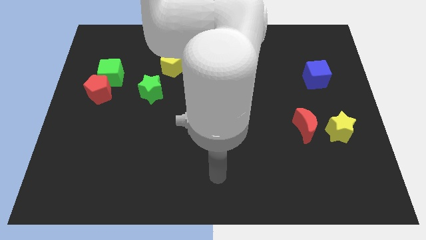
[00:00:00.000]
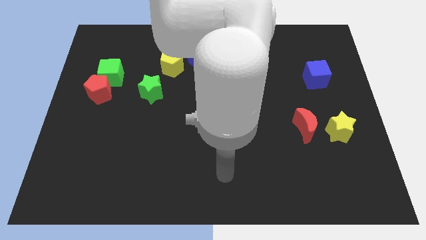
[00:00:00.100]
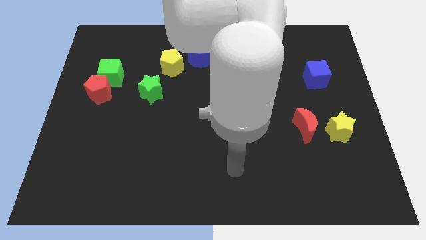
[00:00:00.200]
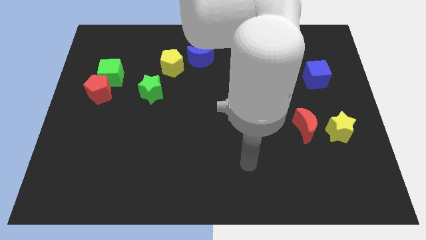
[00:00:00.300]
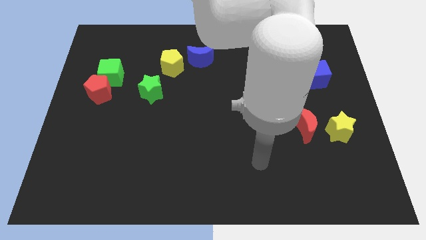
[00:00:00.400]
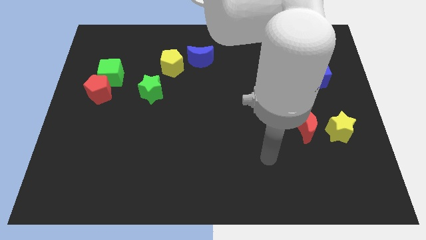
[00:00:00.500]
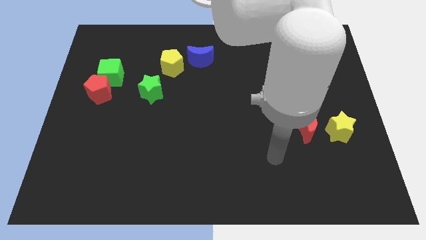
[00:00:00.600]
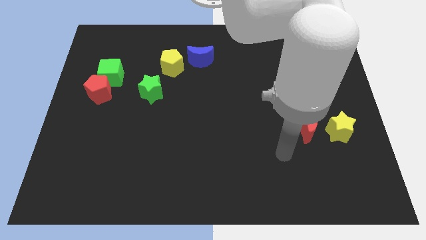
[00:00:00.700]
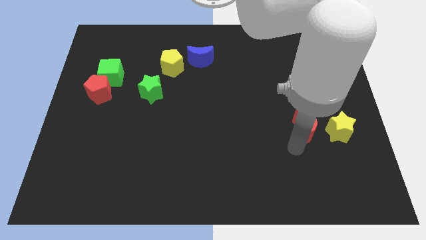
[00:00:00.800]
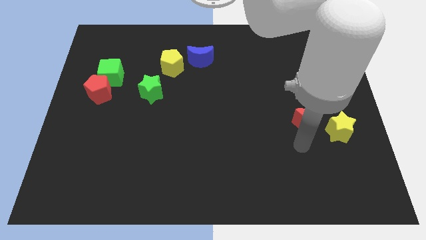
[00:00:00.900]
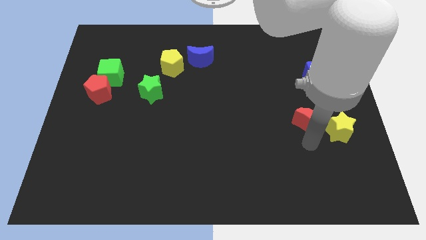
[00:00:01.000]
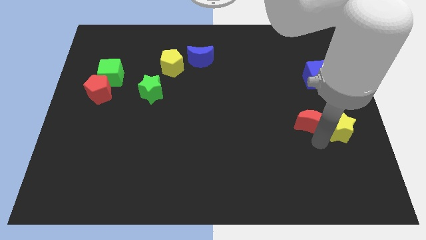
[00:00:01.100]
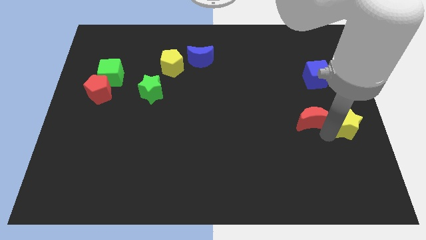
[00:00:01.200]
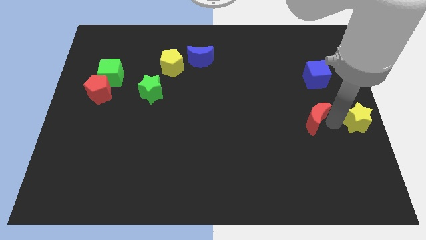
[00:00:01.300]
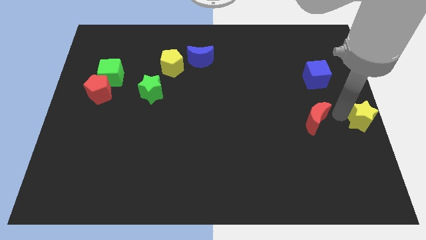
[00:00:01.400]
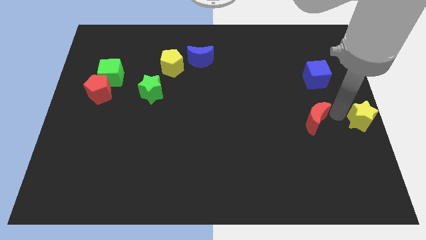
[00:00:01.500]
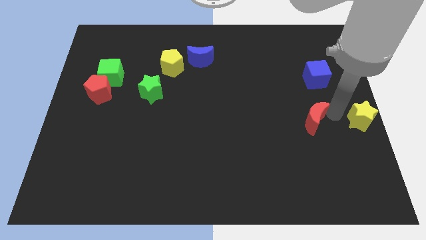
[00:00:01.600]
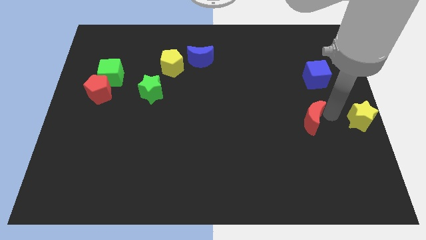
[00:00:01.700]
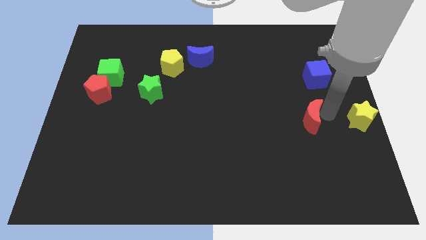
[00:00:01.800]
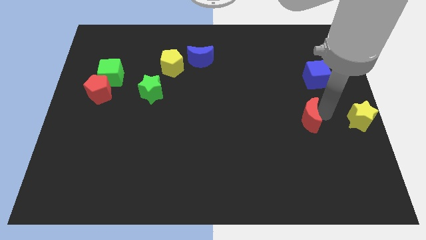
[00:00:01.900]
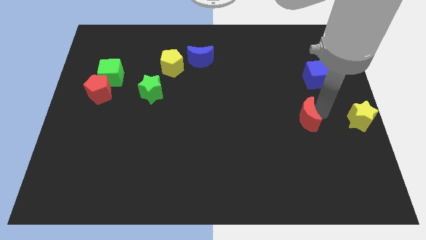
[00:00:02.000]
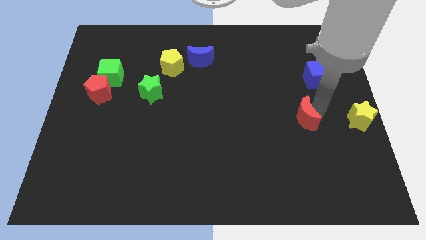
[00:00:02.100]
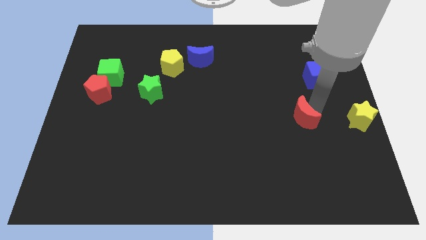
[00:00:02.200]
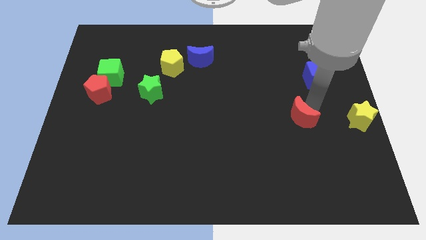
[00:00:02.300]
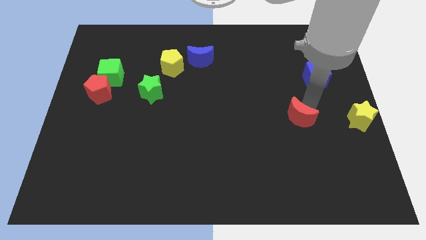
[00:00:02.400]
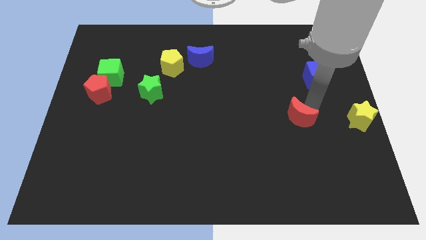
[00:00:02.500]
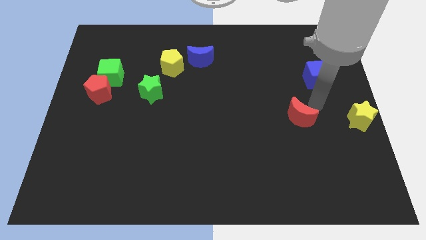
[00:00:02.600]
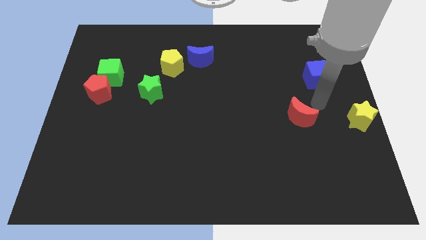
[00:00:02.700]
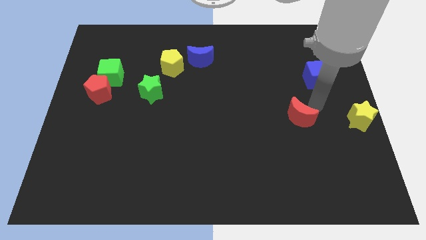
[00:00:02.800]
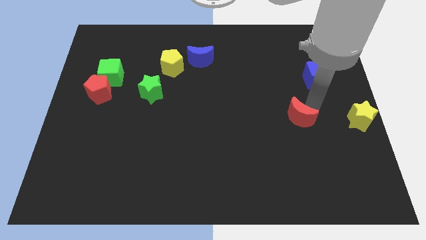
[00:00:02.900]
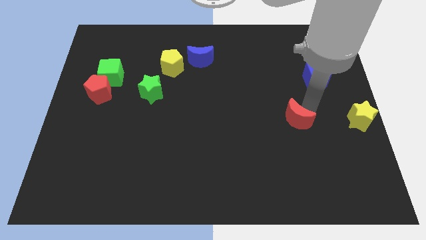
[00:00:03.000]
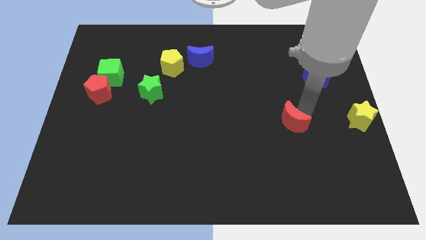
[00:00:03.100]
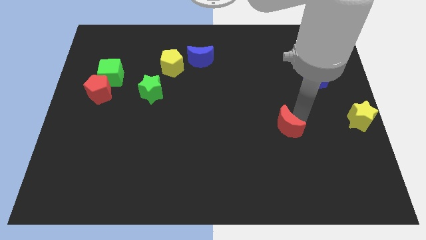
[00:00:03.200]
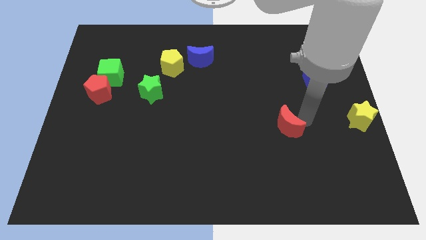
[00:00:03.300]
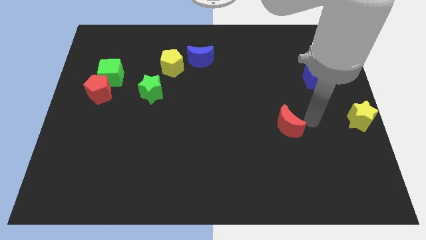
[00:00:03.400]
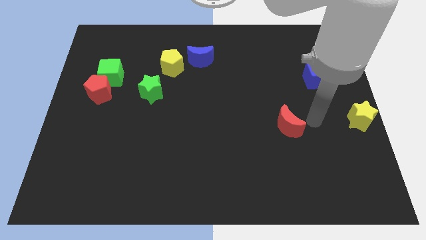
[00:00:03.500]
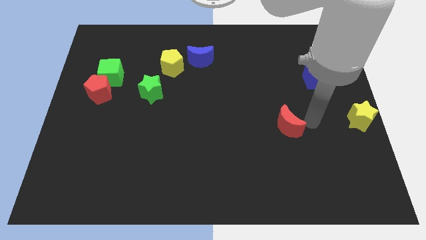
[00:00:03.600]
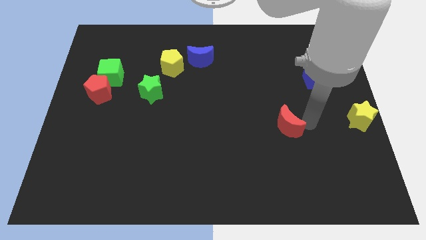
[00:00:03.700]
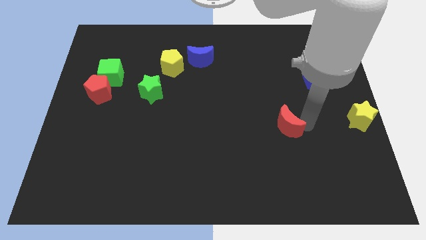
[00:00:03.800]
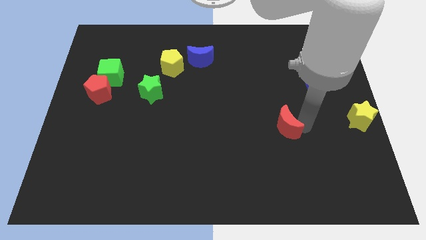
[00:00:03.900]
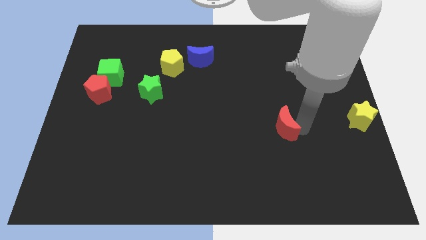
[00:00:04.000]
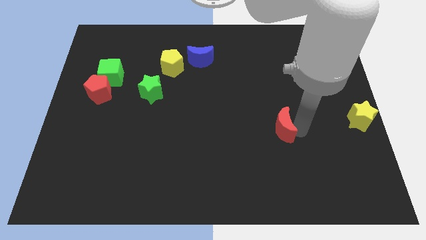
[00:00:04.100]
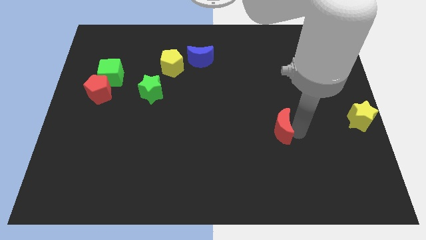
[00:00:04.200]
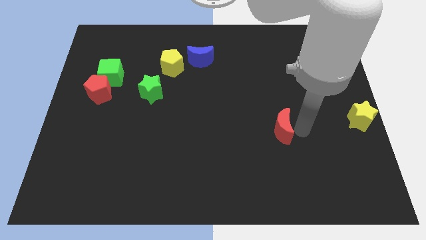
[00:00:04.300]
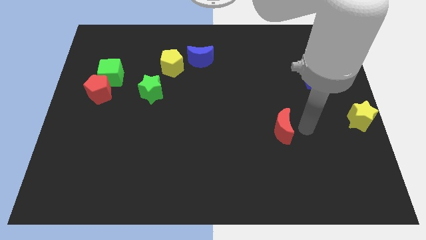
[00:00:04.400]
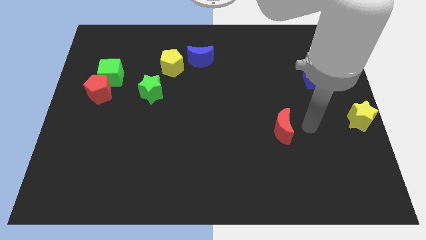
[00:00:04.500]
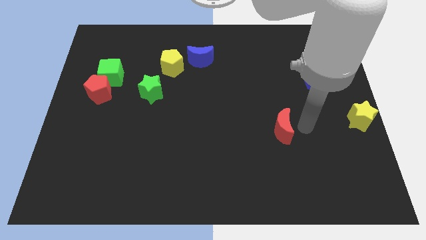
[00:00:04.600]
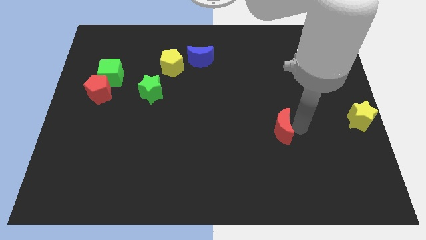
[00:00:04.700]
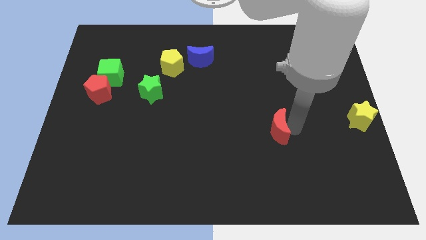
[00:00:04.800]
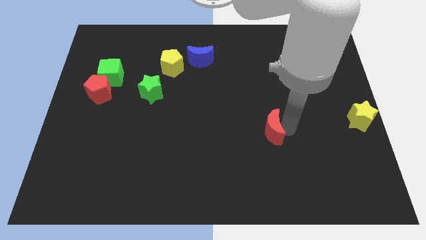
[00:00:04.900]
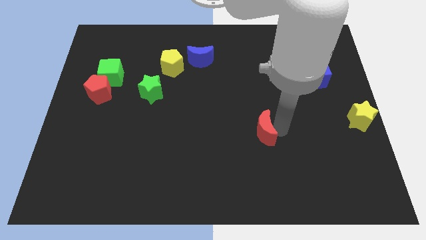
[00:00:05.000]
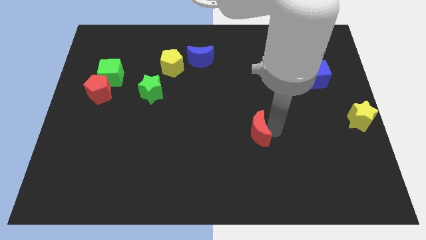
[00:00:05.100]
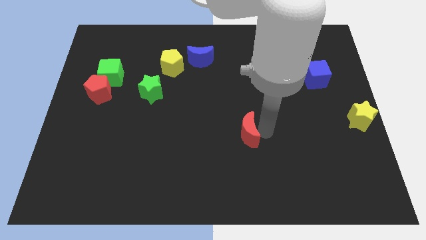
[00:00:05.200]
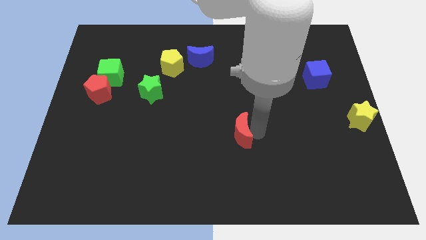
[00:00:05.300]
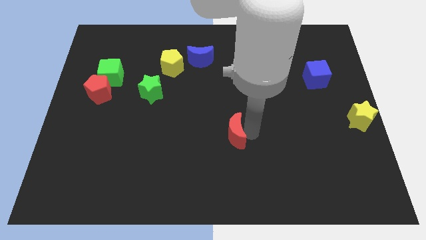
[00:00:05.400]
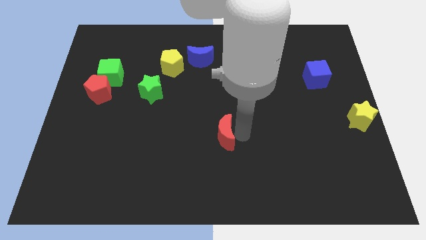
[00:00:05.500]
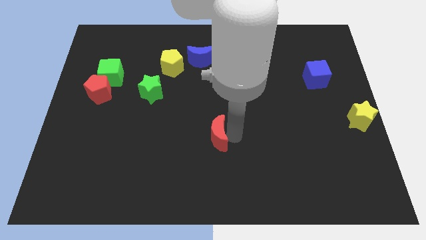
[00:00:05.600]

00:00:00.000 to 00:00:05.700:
slide the red moon to the left

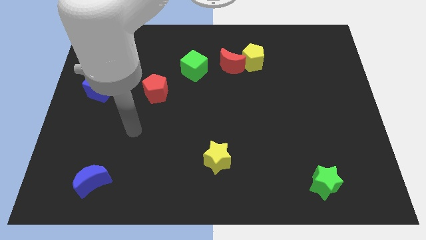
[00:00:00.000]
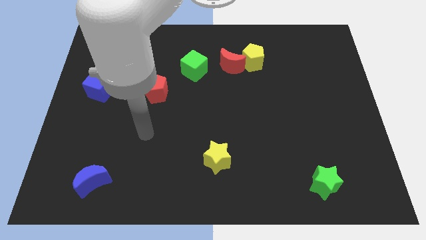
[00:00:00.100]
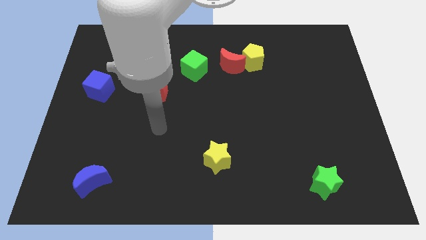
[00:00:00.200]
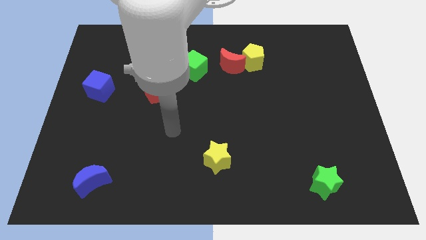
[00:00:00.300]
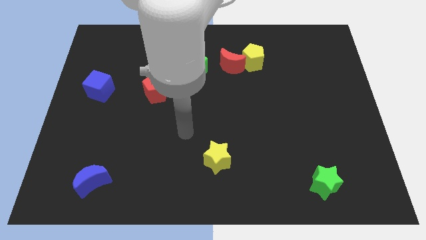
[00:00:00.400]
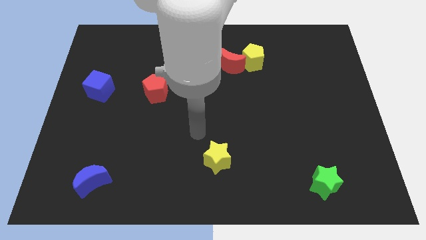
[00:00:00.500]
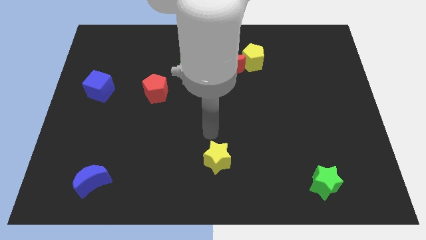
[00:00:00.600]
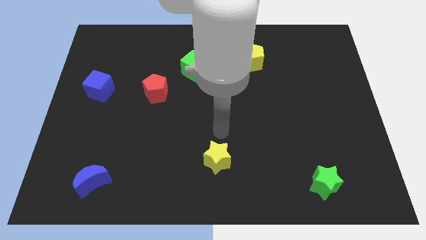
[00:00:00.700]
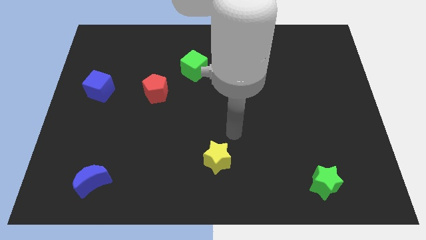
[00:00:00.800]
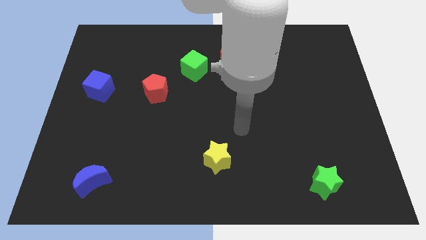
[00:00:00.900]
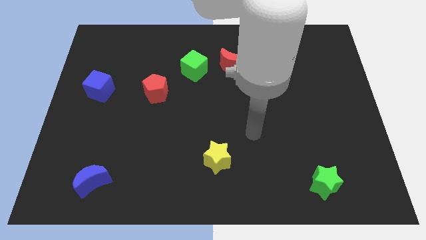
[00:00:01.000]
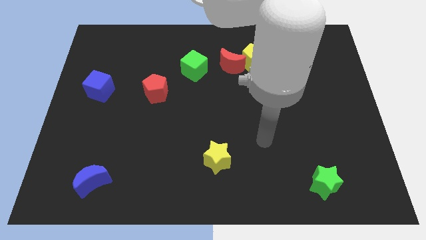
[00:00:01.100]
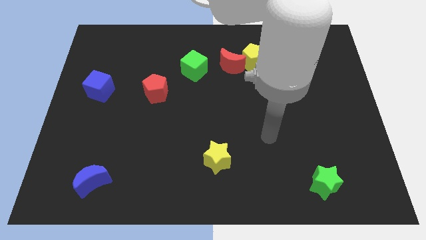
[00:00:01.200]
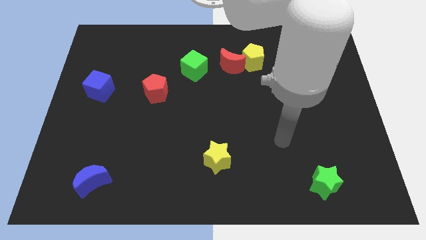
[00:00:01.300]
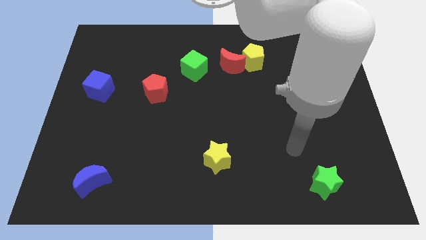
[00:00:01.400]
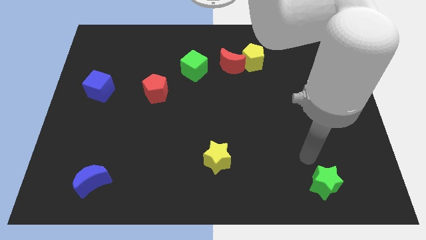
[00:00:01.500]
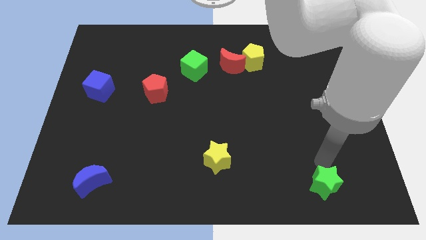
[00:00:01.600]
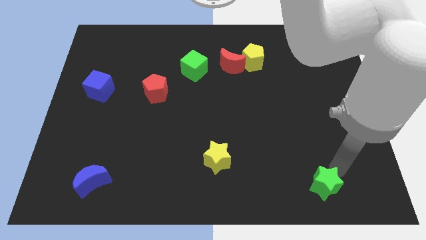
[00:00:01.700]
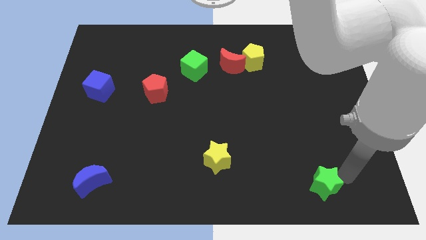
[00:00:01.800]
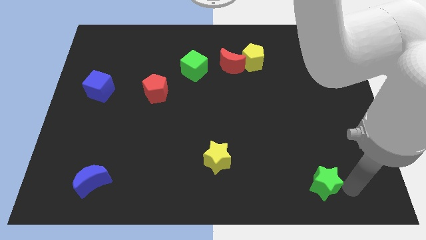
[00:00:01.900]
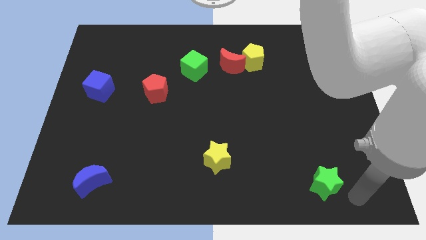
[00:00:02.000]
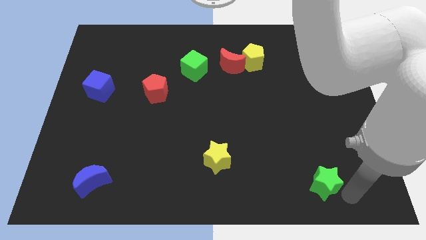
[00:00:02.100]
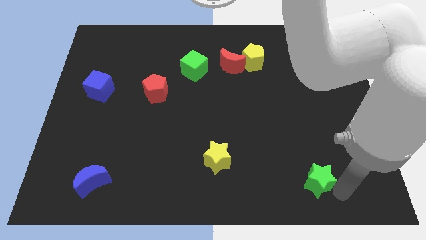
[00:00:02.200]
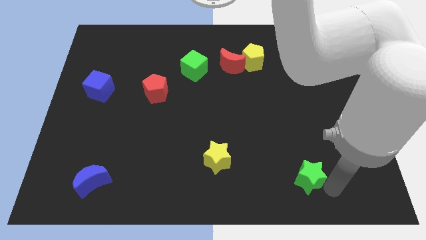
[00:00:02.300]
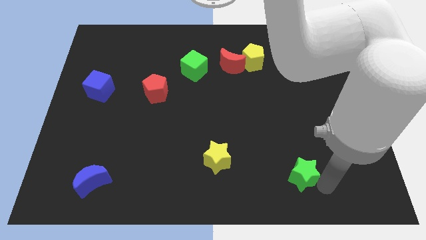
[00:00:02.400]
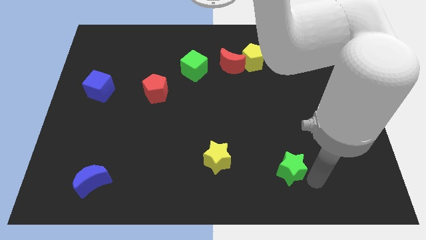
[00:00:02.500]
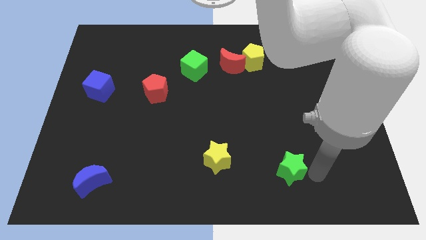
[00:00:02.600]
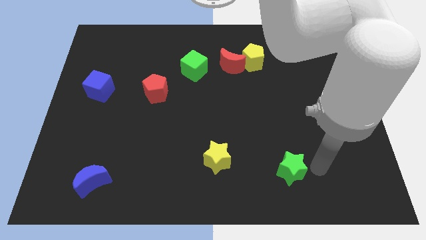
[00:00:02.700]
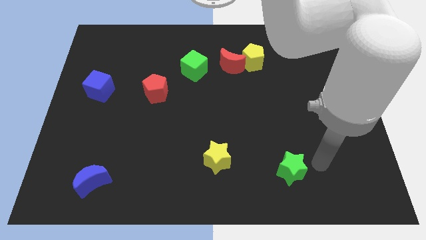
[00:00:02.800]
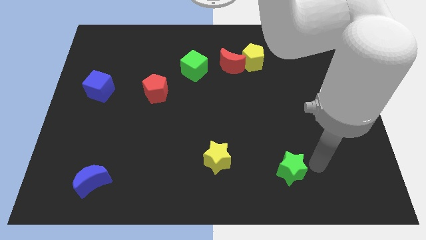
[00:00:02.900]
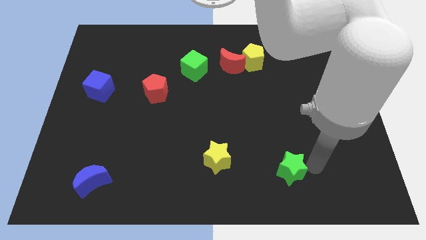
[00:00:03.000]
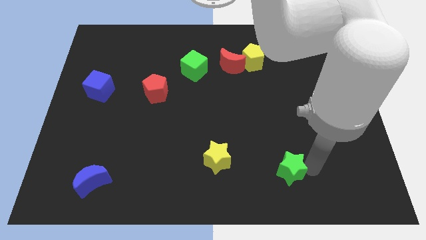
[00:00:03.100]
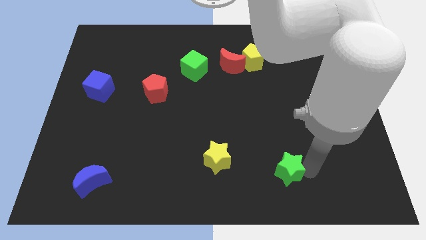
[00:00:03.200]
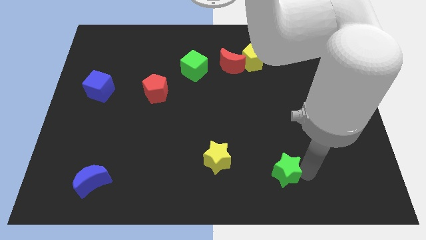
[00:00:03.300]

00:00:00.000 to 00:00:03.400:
slightly move the green star to the left
